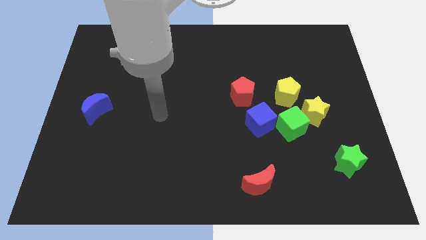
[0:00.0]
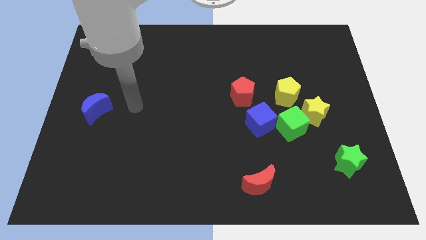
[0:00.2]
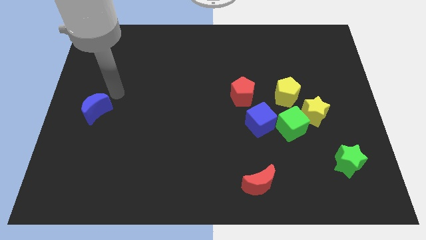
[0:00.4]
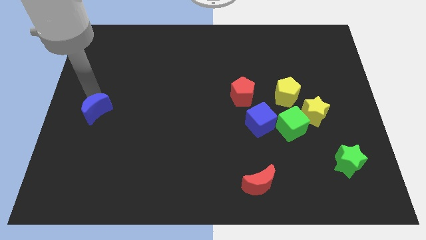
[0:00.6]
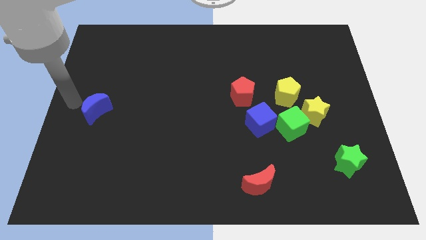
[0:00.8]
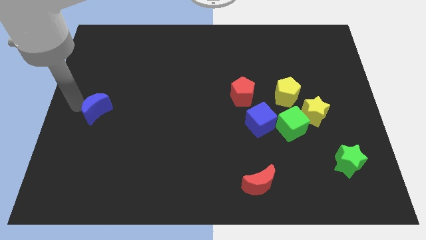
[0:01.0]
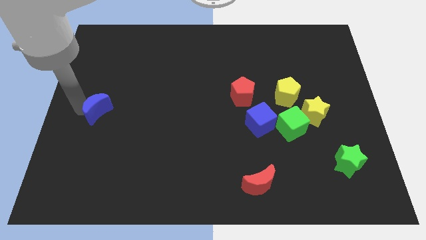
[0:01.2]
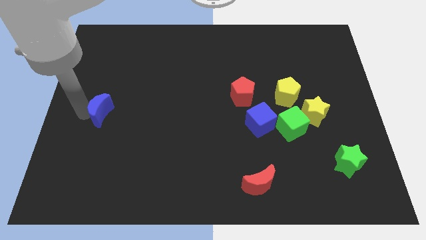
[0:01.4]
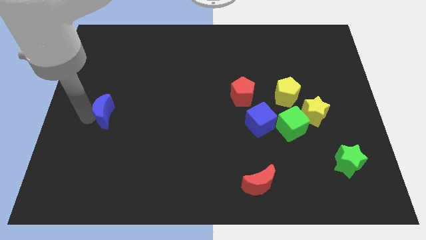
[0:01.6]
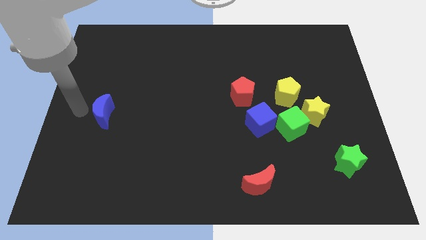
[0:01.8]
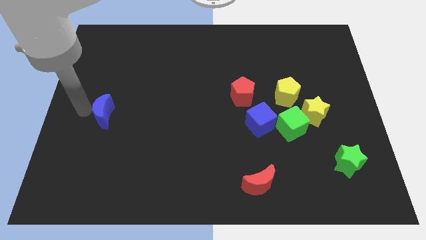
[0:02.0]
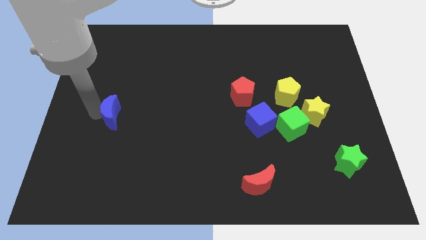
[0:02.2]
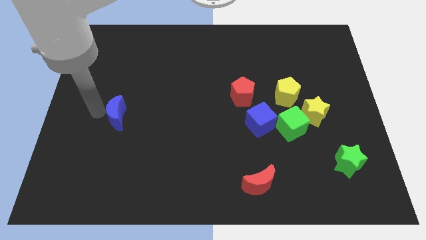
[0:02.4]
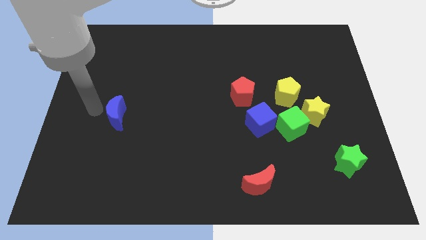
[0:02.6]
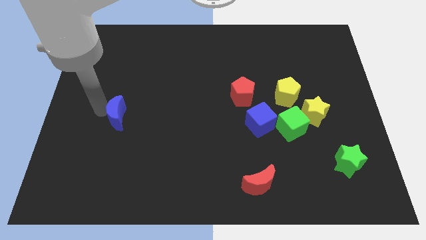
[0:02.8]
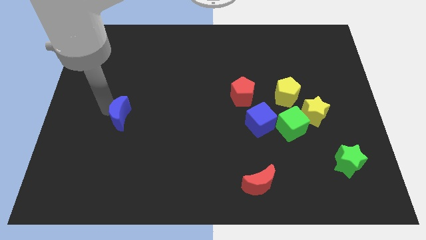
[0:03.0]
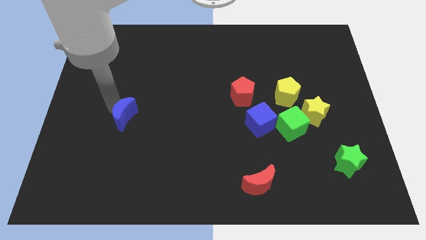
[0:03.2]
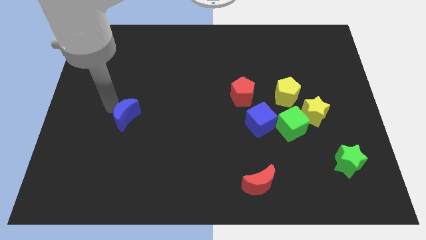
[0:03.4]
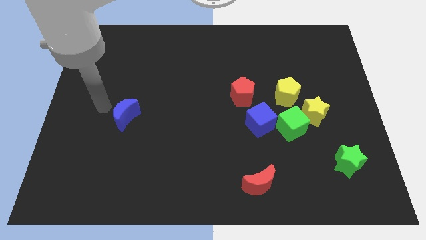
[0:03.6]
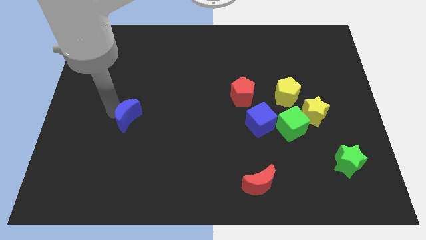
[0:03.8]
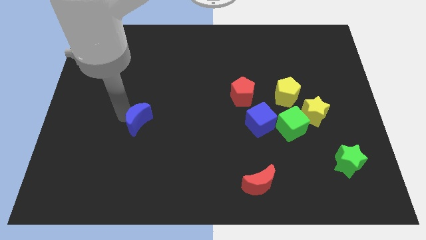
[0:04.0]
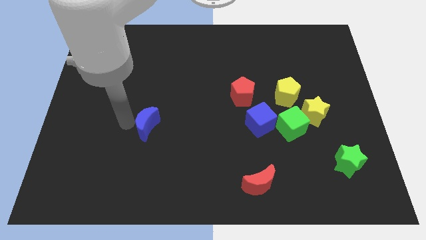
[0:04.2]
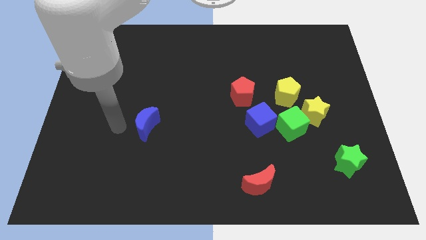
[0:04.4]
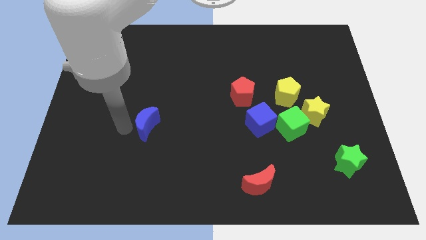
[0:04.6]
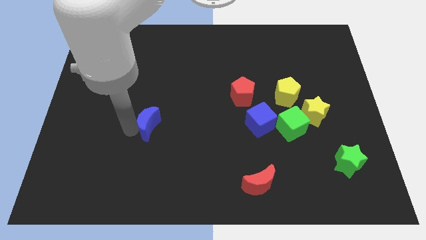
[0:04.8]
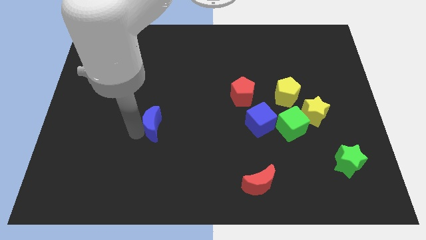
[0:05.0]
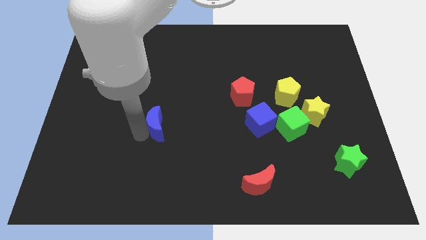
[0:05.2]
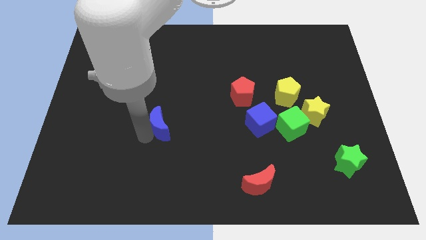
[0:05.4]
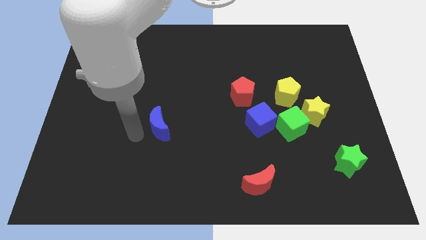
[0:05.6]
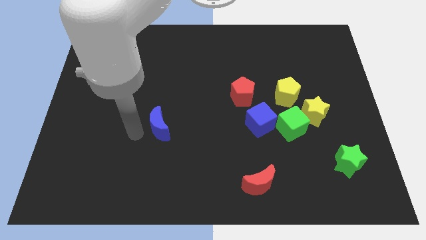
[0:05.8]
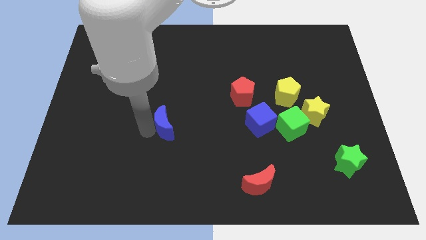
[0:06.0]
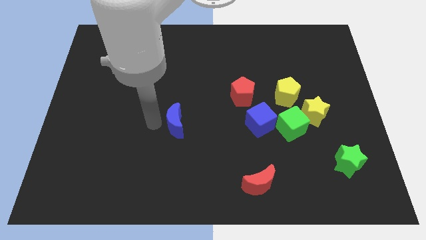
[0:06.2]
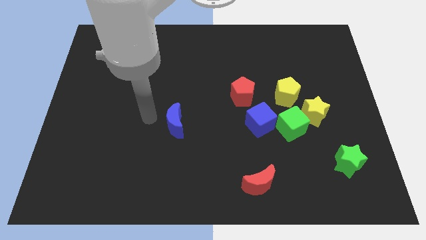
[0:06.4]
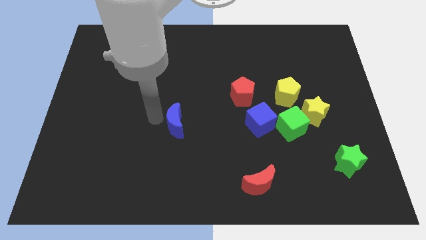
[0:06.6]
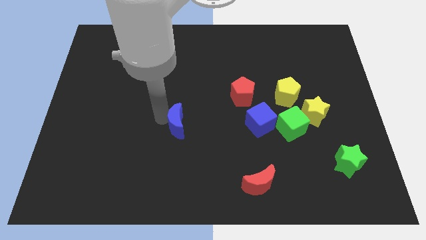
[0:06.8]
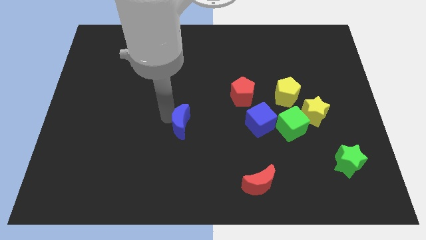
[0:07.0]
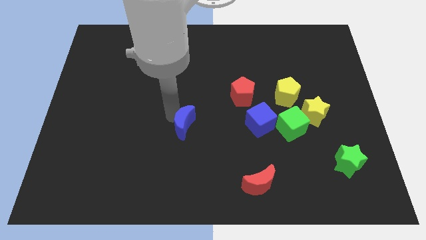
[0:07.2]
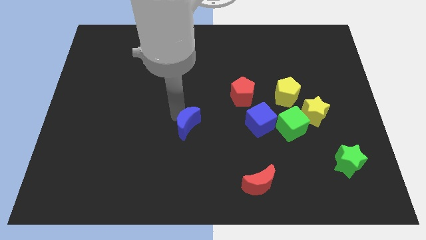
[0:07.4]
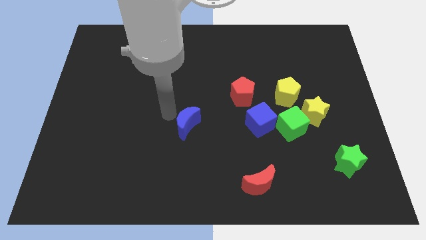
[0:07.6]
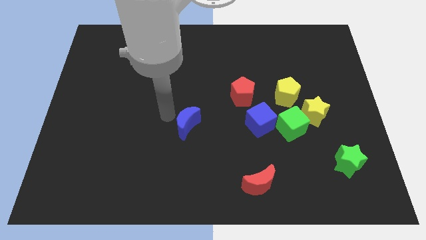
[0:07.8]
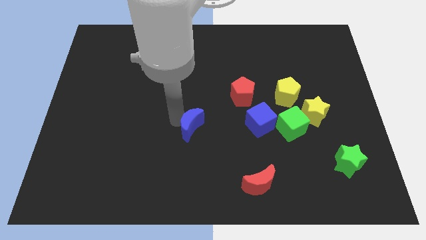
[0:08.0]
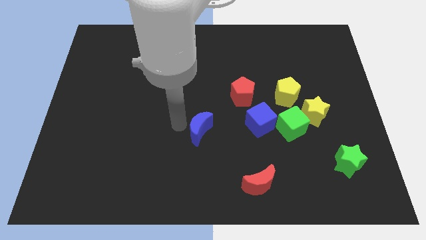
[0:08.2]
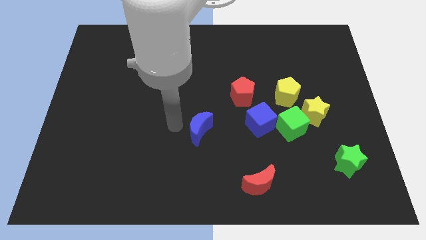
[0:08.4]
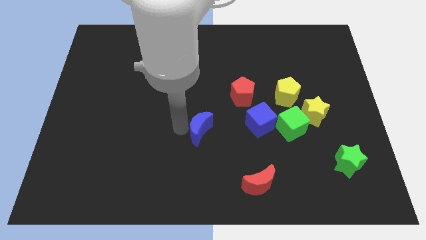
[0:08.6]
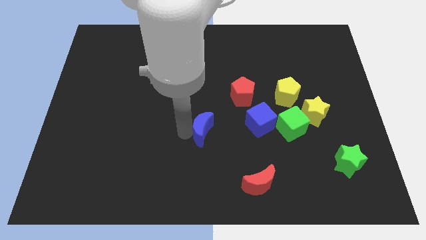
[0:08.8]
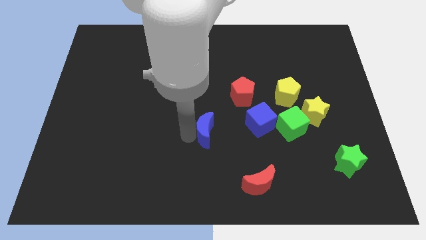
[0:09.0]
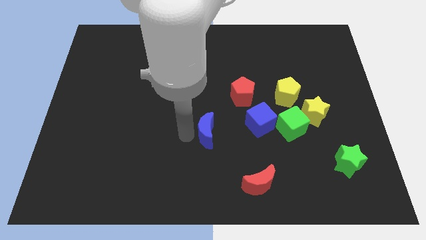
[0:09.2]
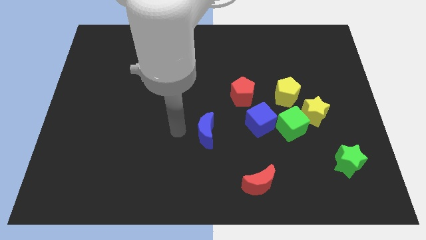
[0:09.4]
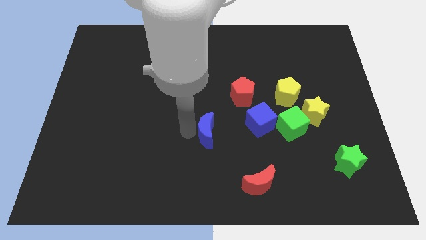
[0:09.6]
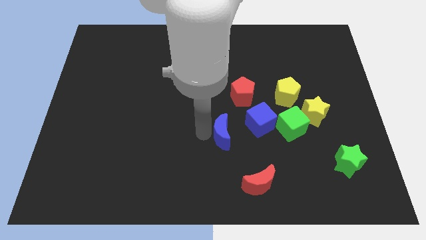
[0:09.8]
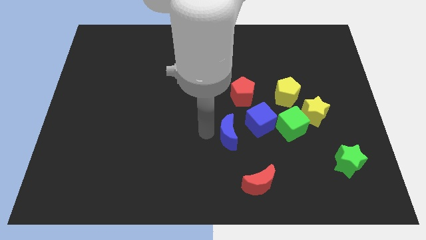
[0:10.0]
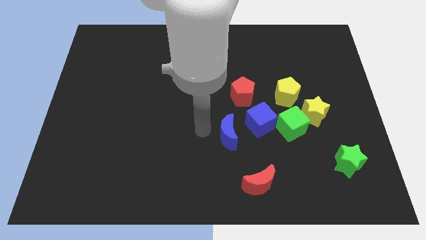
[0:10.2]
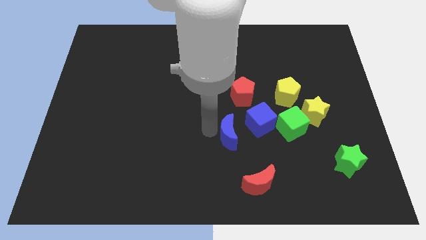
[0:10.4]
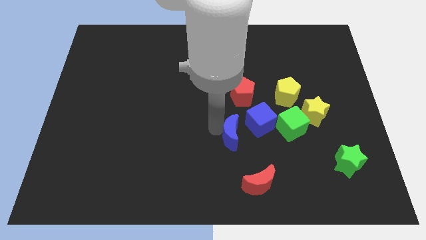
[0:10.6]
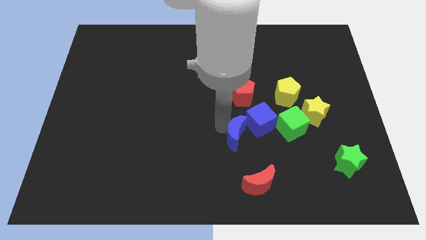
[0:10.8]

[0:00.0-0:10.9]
push the blue moon to the top of the red moon

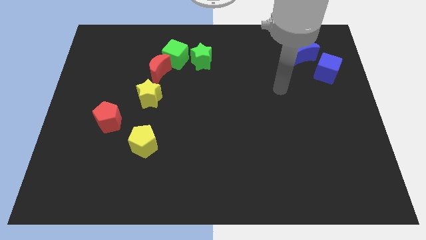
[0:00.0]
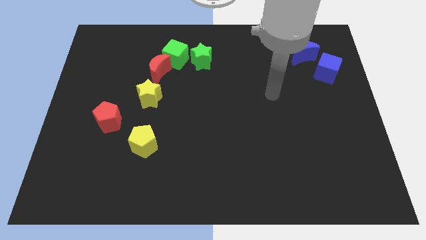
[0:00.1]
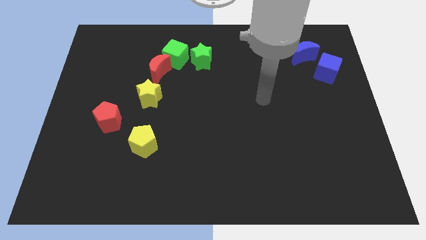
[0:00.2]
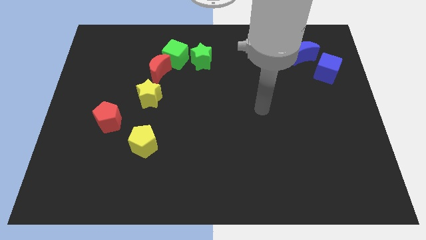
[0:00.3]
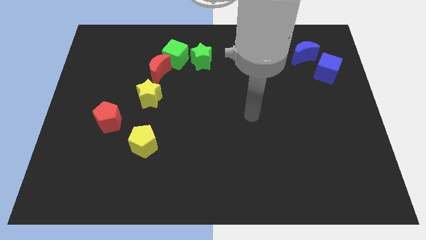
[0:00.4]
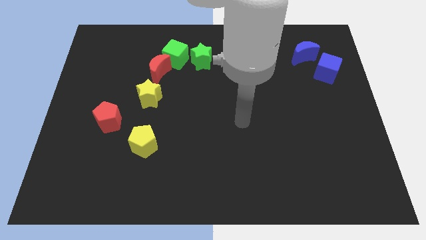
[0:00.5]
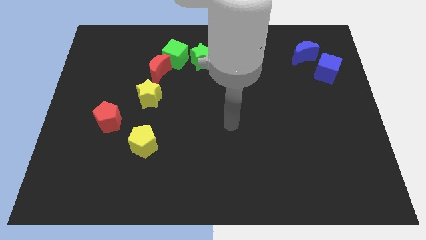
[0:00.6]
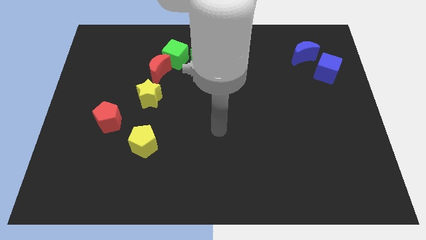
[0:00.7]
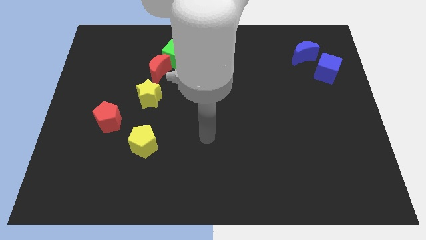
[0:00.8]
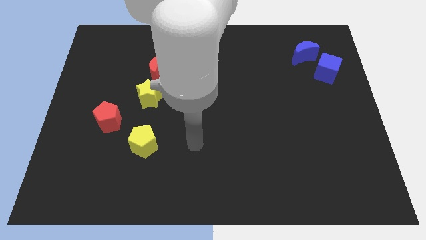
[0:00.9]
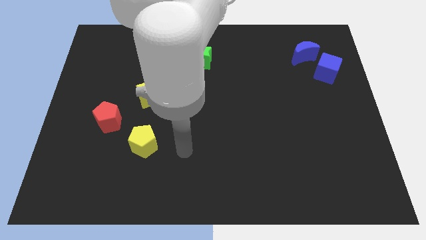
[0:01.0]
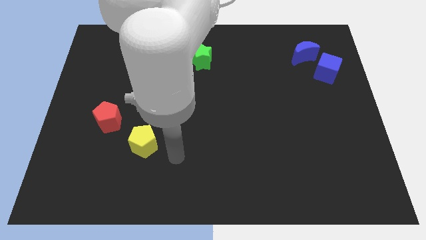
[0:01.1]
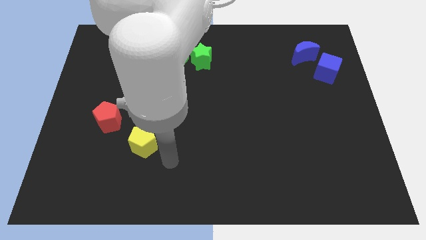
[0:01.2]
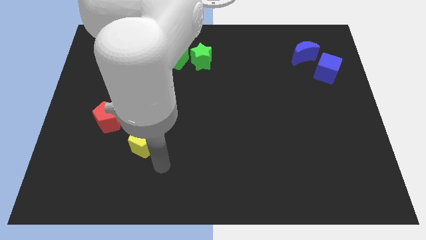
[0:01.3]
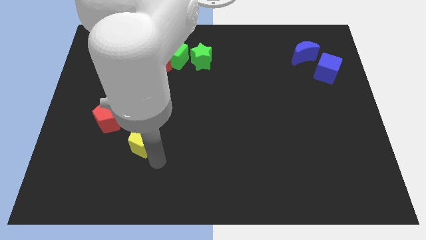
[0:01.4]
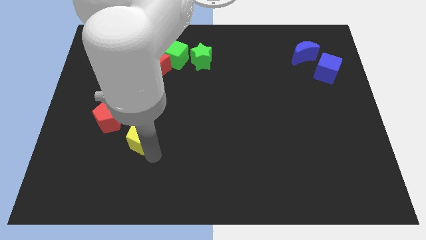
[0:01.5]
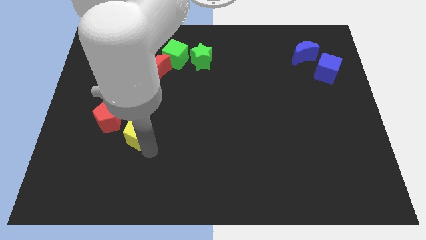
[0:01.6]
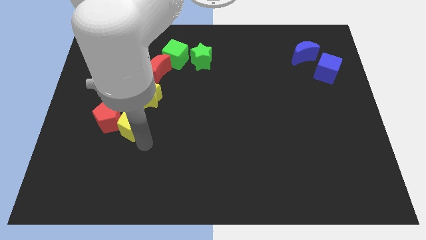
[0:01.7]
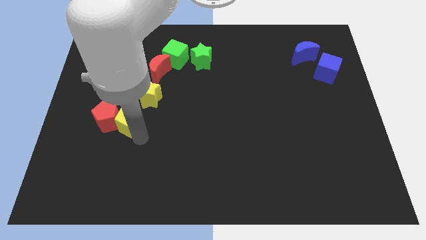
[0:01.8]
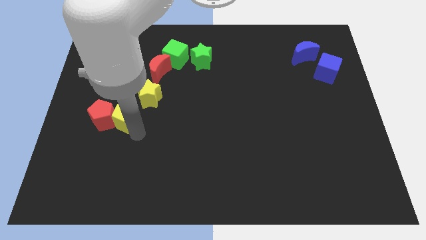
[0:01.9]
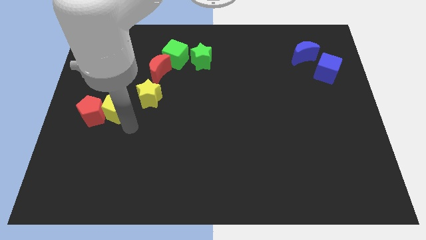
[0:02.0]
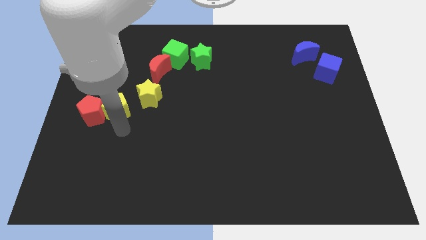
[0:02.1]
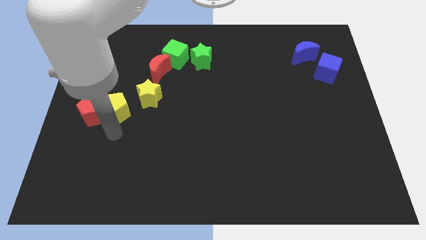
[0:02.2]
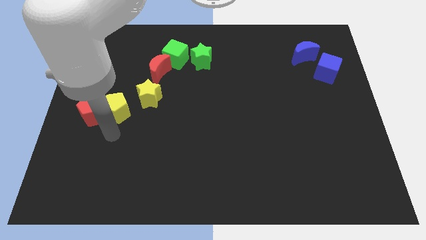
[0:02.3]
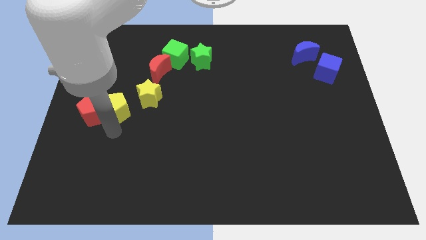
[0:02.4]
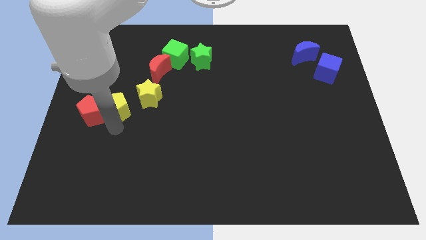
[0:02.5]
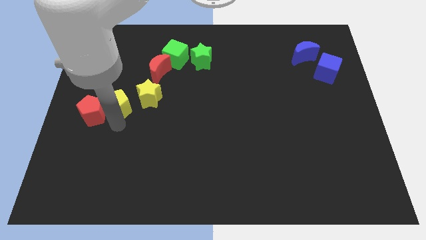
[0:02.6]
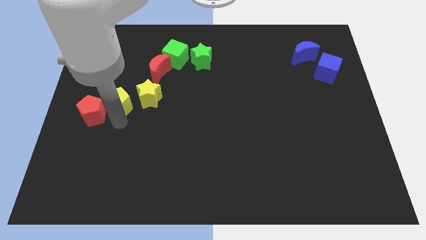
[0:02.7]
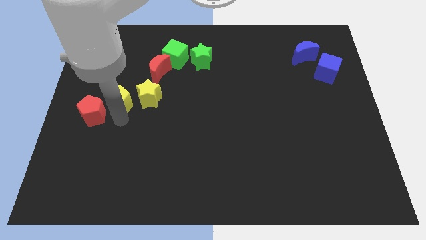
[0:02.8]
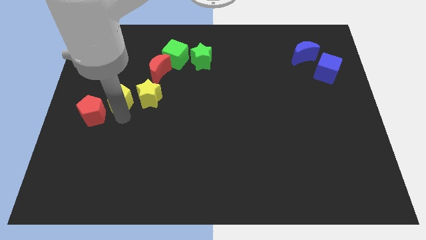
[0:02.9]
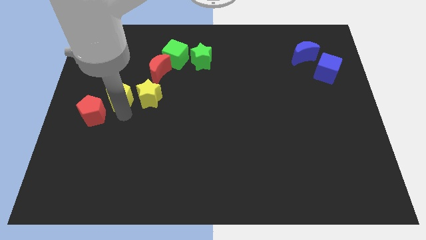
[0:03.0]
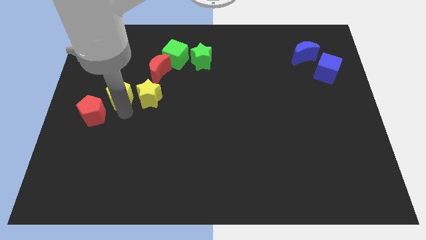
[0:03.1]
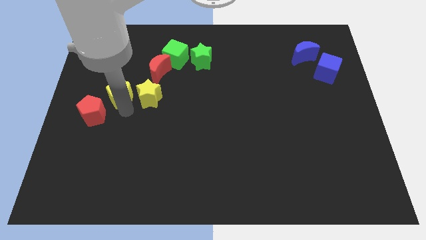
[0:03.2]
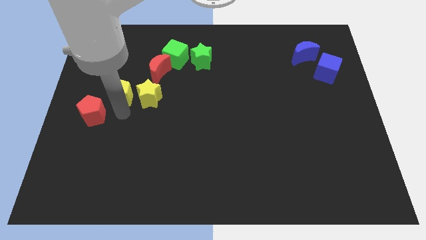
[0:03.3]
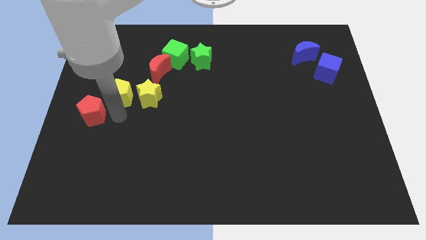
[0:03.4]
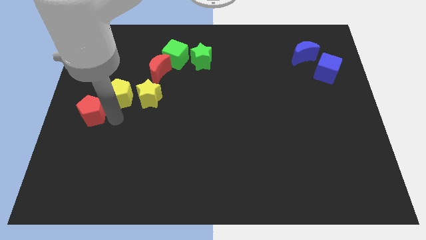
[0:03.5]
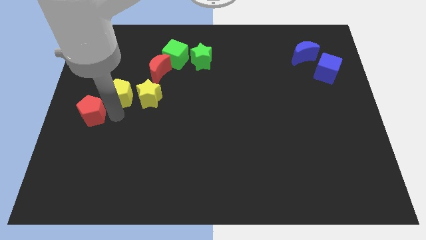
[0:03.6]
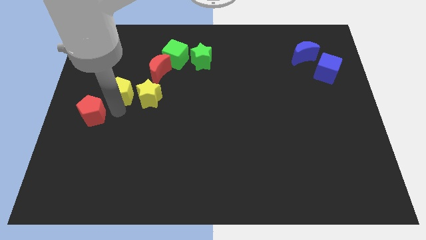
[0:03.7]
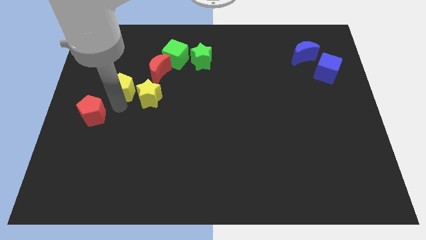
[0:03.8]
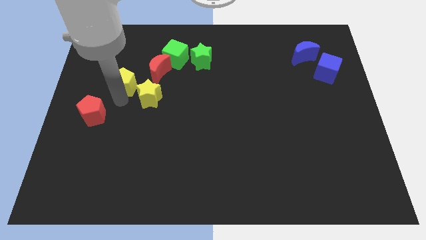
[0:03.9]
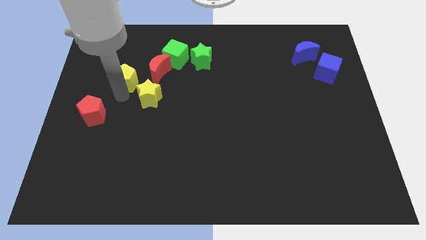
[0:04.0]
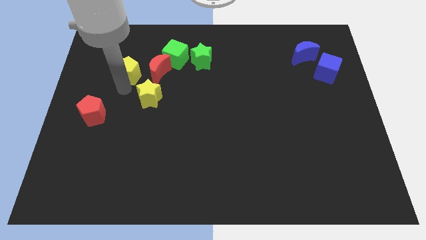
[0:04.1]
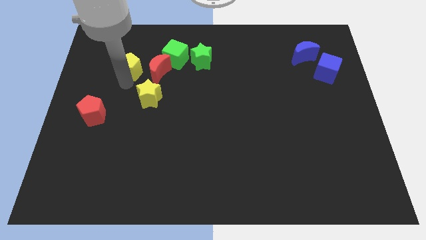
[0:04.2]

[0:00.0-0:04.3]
slide the yellow pentagon diagonally up and to the left of the red moon
